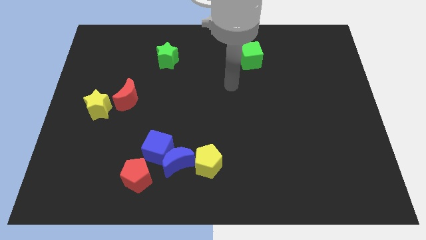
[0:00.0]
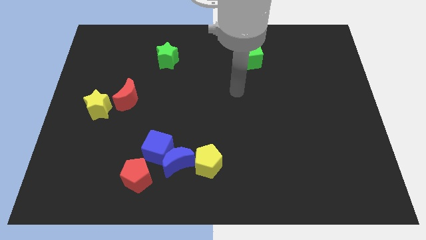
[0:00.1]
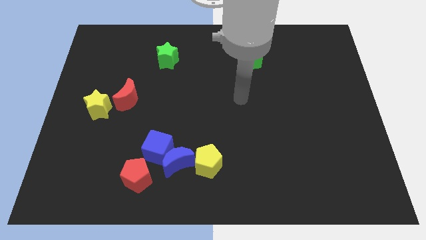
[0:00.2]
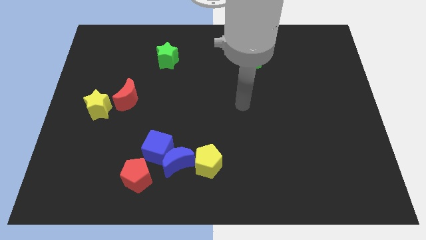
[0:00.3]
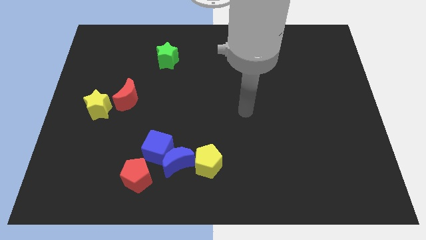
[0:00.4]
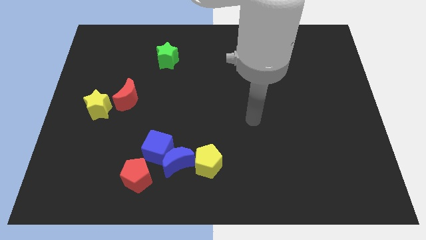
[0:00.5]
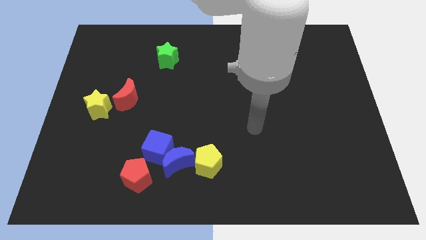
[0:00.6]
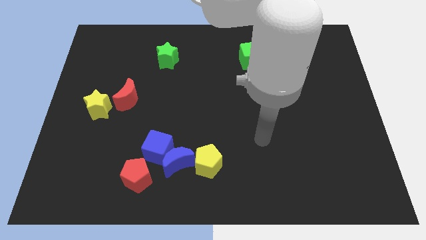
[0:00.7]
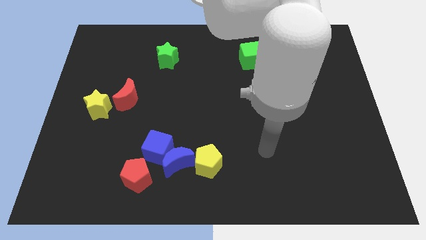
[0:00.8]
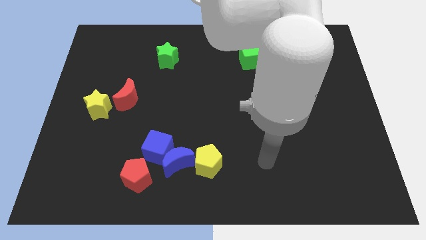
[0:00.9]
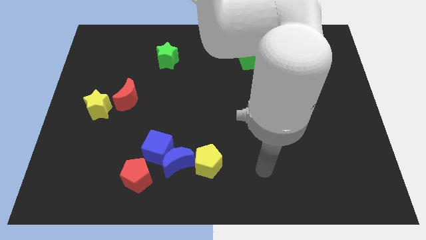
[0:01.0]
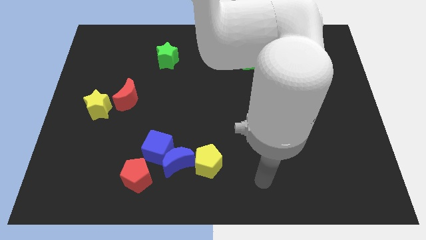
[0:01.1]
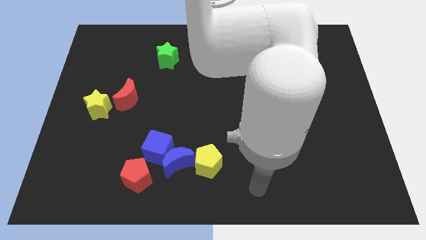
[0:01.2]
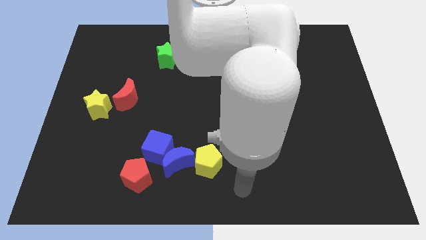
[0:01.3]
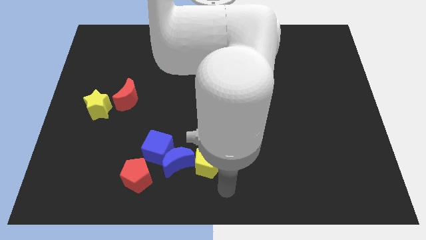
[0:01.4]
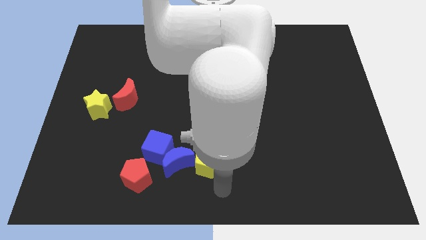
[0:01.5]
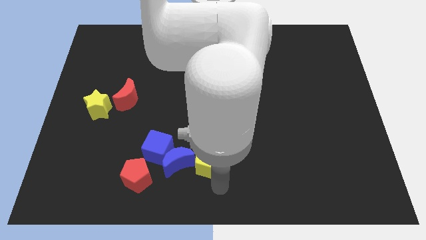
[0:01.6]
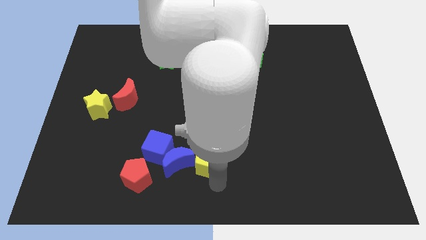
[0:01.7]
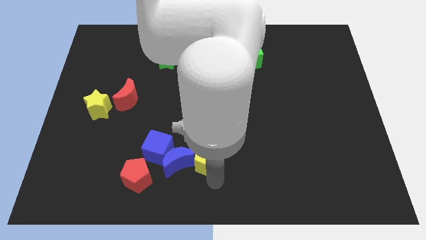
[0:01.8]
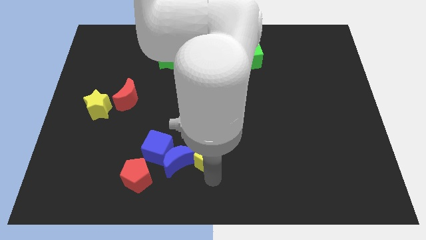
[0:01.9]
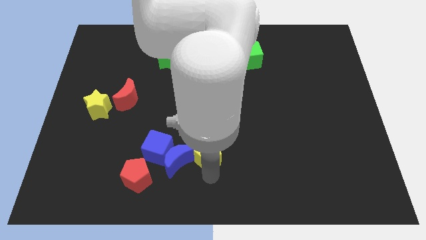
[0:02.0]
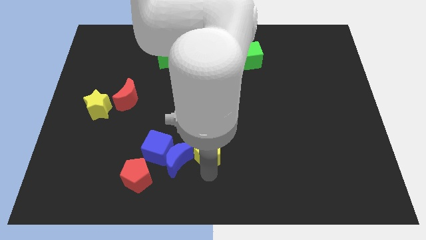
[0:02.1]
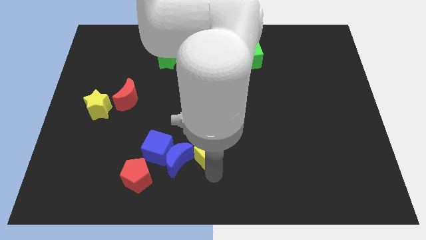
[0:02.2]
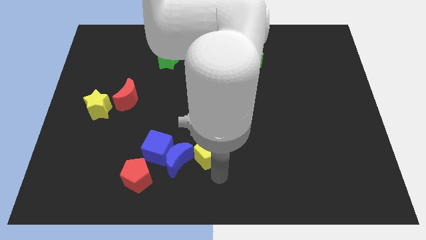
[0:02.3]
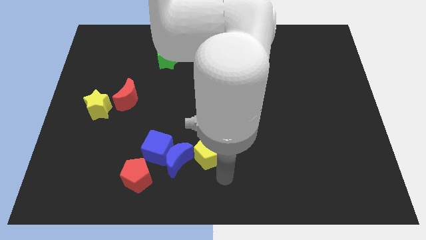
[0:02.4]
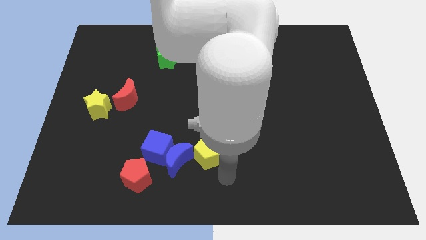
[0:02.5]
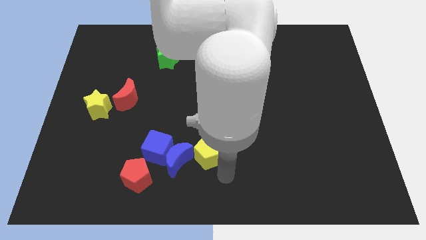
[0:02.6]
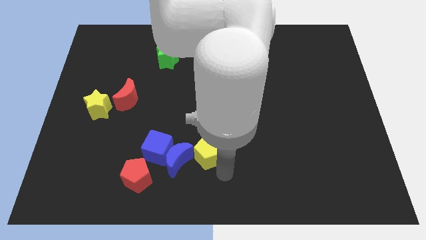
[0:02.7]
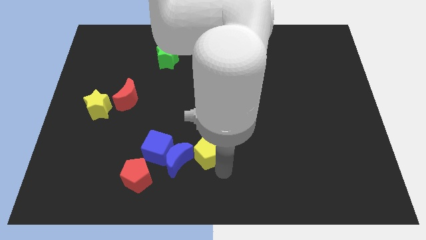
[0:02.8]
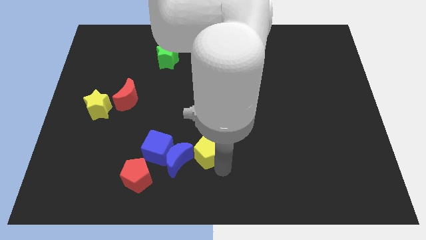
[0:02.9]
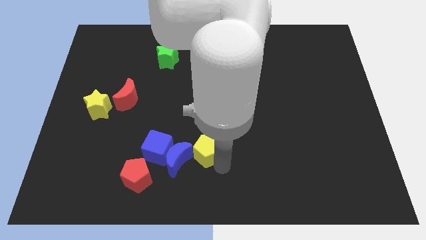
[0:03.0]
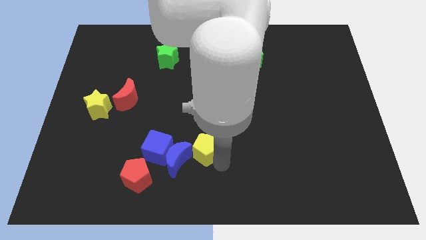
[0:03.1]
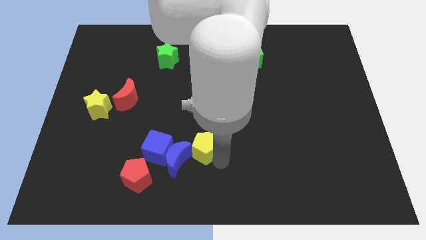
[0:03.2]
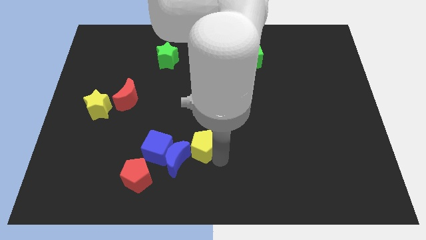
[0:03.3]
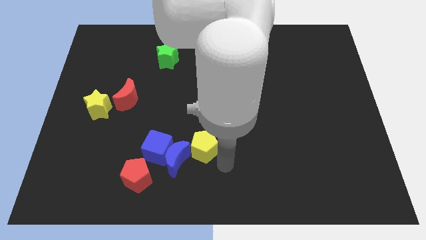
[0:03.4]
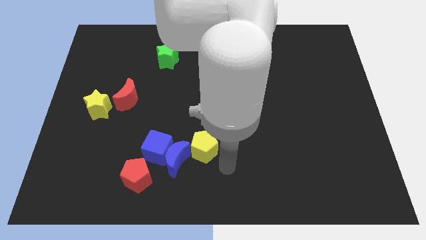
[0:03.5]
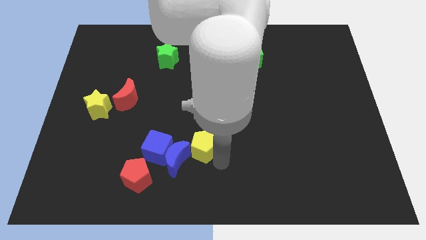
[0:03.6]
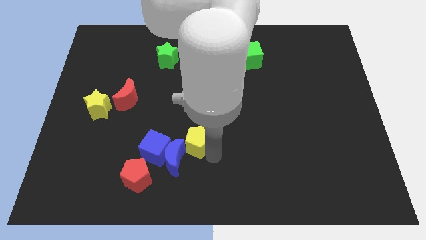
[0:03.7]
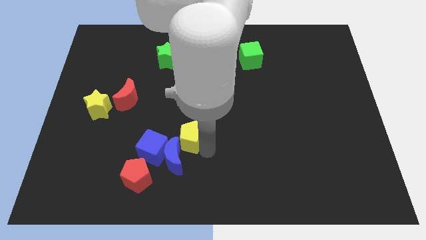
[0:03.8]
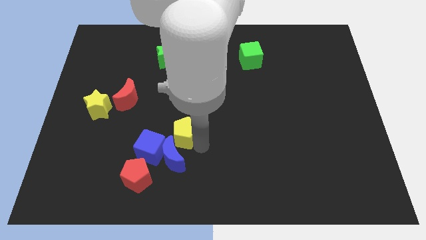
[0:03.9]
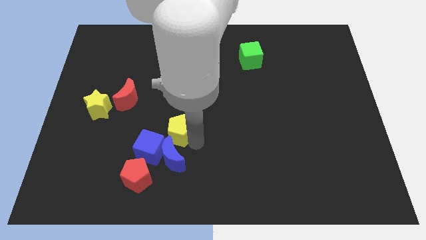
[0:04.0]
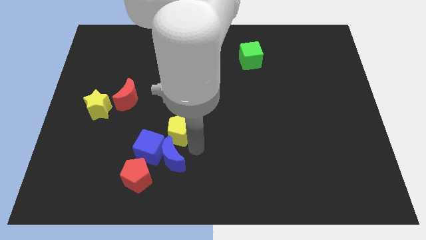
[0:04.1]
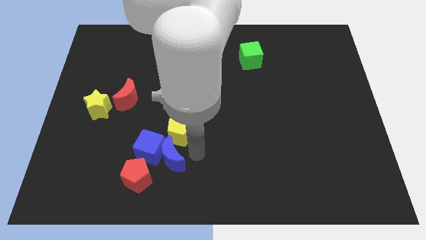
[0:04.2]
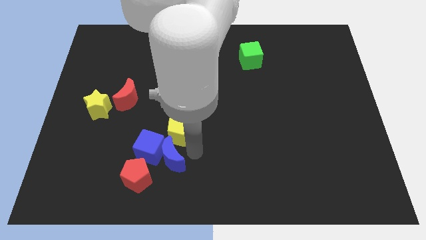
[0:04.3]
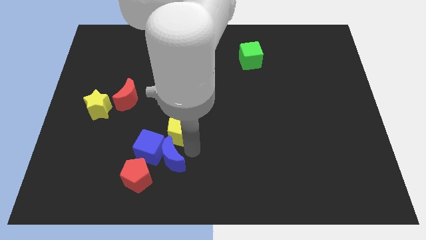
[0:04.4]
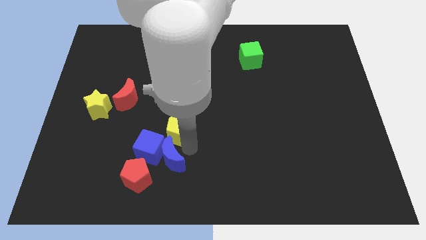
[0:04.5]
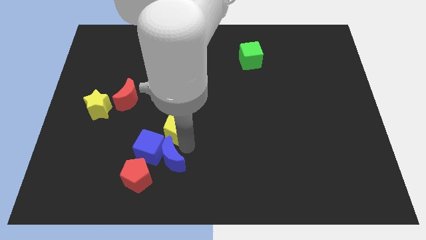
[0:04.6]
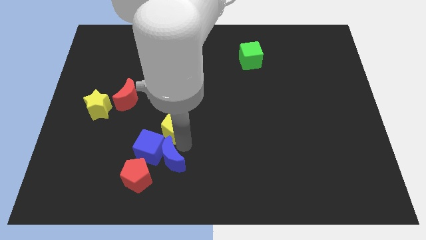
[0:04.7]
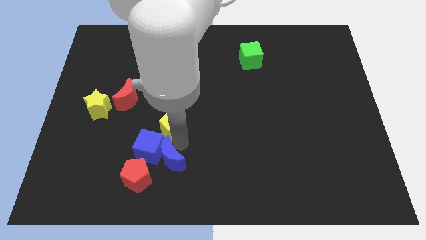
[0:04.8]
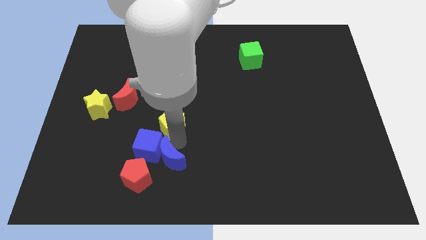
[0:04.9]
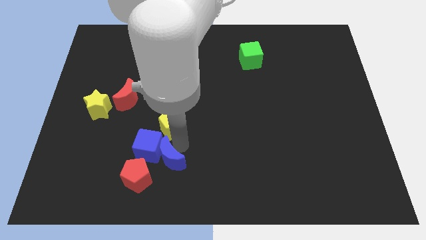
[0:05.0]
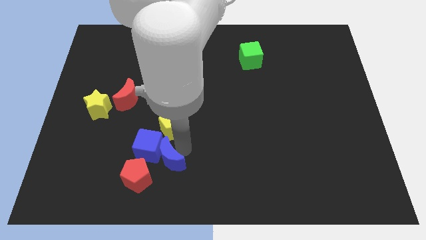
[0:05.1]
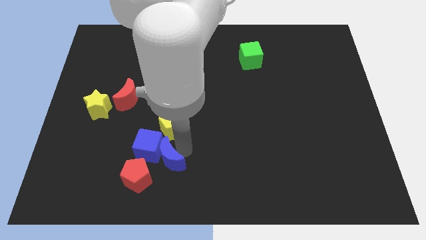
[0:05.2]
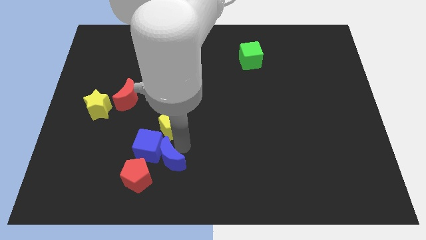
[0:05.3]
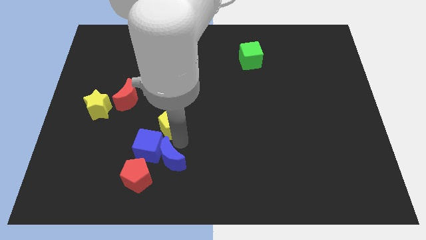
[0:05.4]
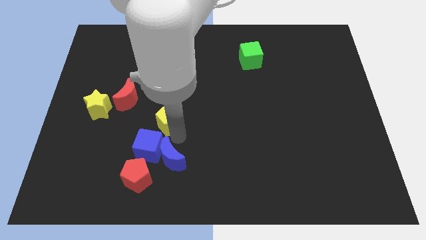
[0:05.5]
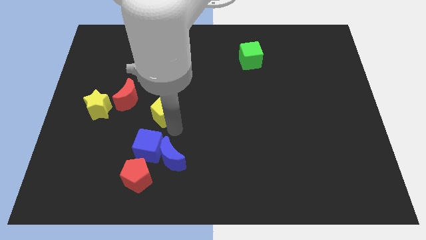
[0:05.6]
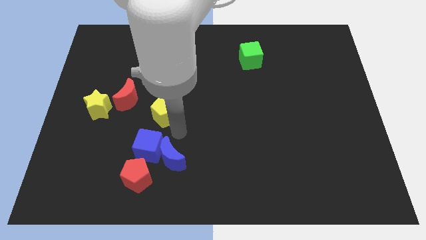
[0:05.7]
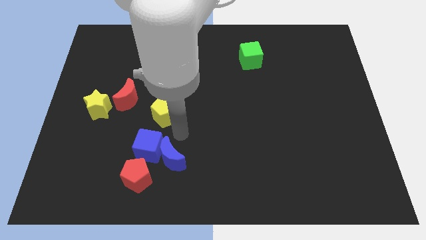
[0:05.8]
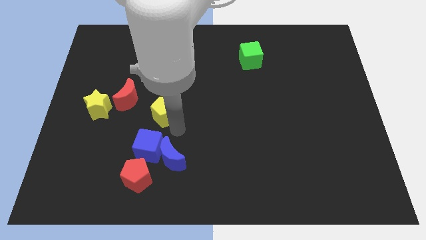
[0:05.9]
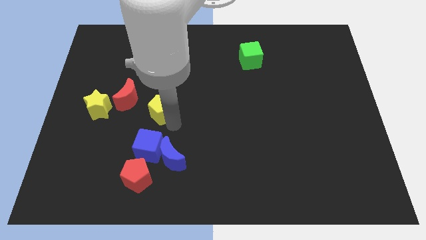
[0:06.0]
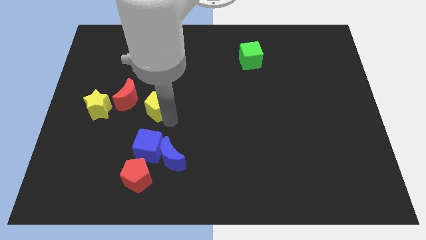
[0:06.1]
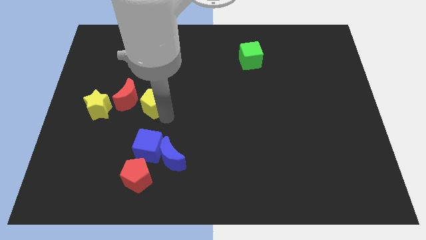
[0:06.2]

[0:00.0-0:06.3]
move the yellow pentagon upwards and then to the left

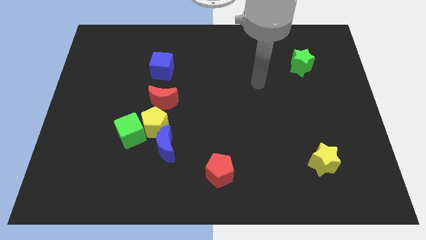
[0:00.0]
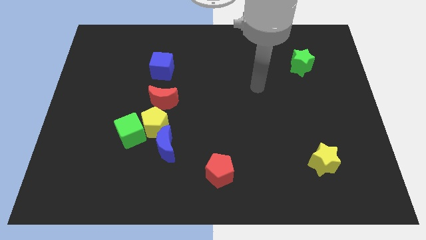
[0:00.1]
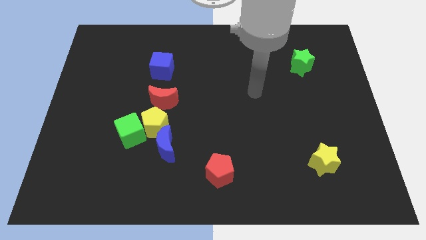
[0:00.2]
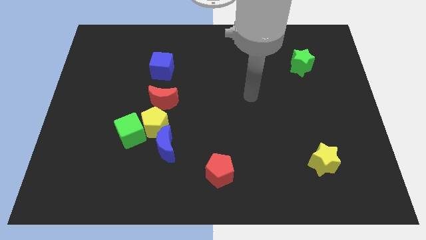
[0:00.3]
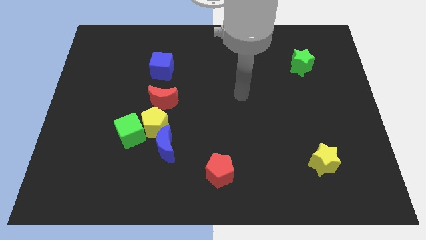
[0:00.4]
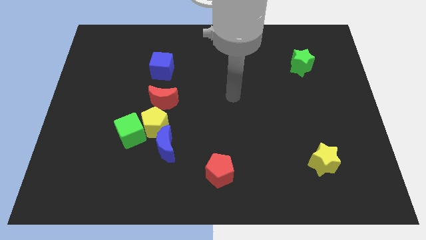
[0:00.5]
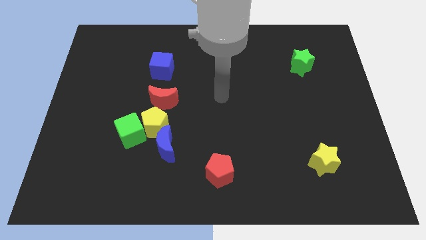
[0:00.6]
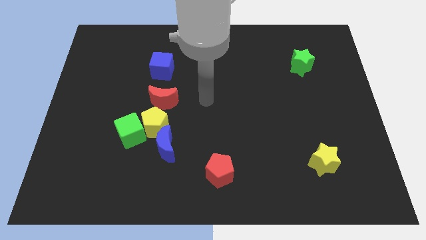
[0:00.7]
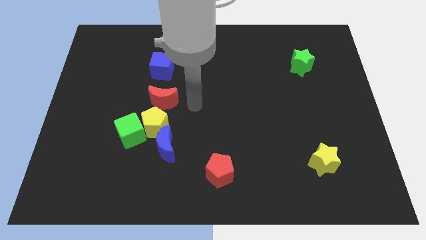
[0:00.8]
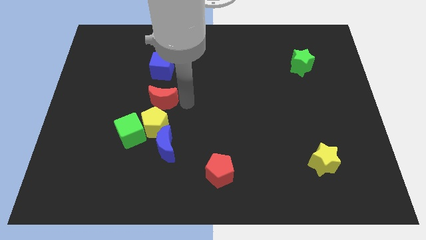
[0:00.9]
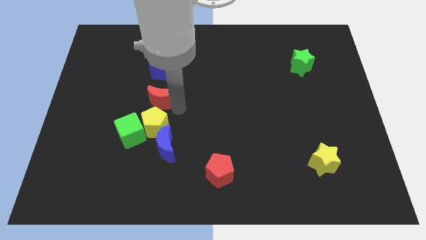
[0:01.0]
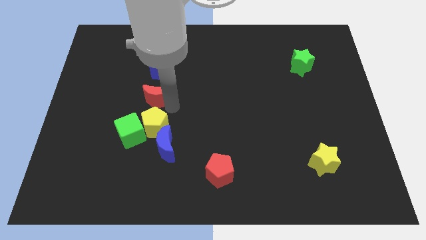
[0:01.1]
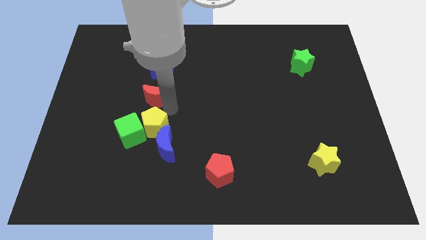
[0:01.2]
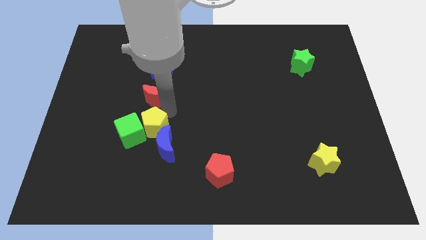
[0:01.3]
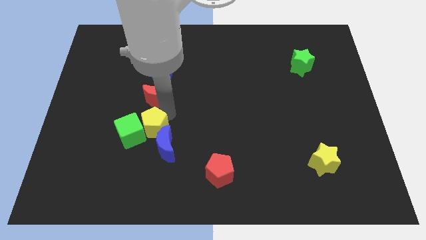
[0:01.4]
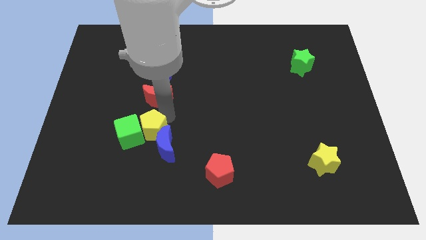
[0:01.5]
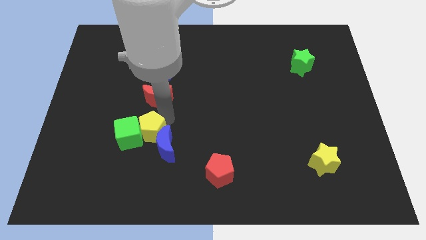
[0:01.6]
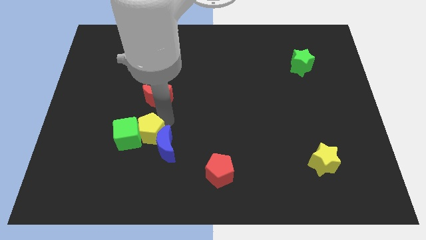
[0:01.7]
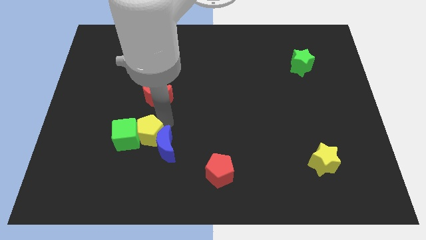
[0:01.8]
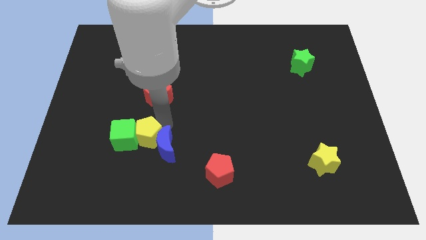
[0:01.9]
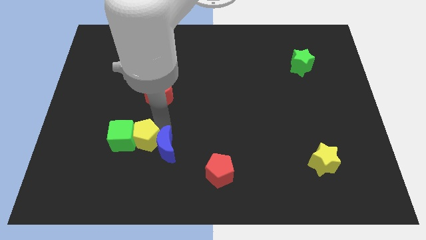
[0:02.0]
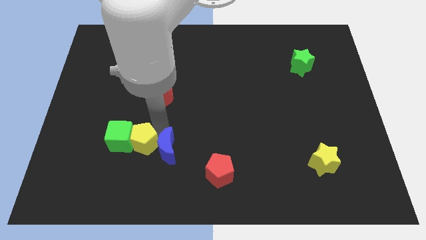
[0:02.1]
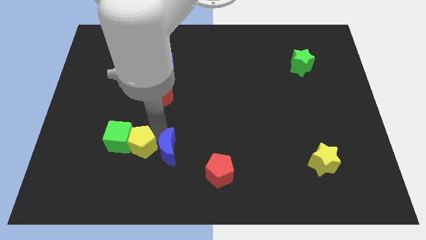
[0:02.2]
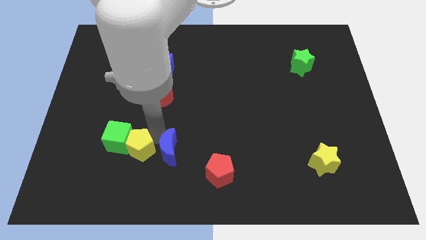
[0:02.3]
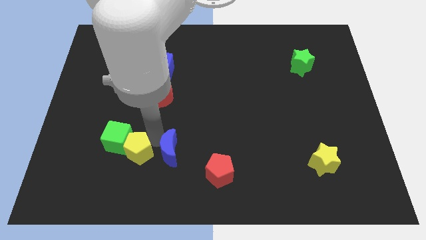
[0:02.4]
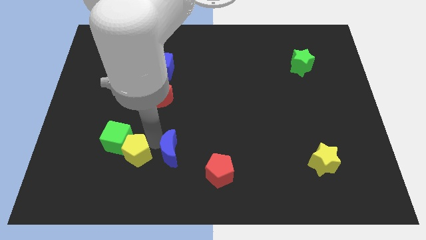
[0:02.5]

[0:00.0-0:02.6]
move the yellow pentagon somewhat diagonally downwards and left
